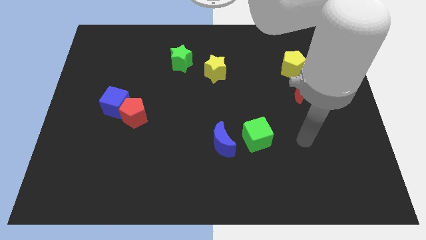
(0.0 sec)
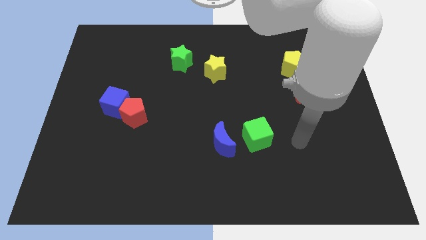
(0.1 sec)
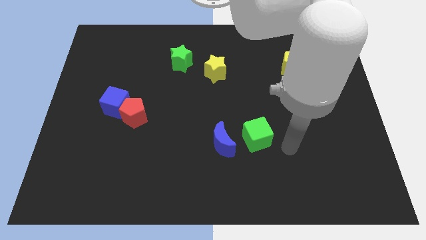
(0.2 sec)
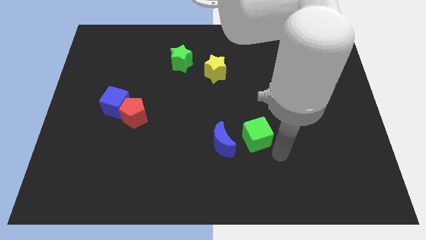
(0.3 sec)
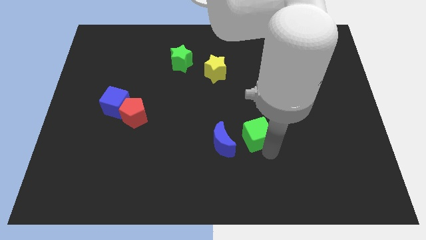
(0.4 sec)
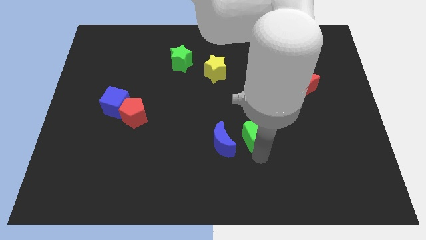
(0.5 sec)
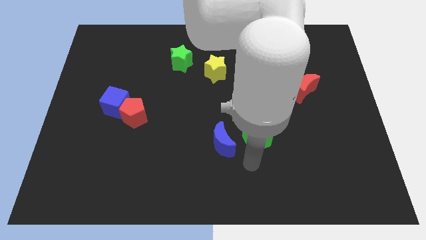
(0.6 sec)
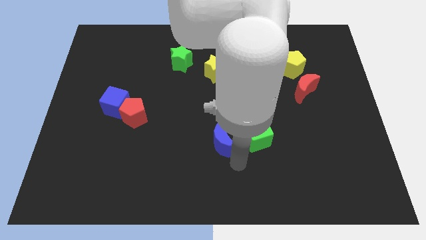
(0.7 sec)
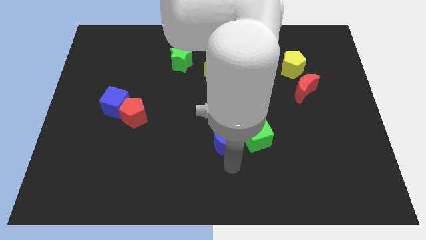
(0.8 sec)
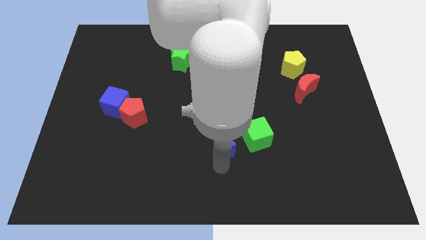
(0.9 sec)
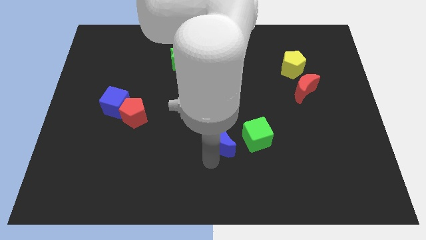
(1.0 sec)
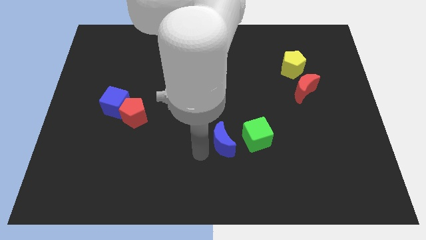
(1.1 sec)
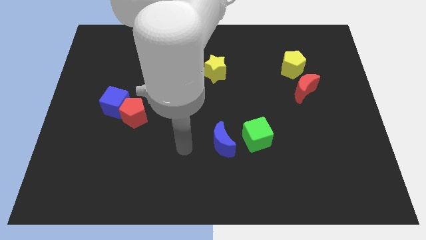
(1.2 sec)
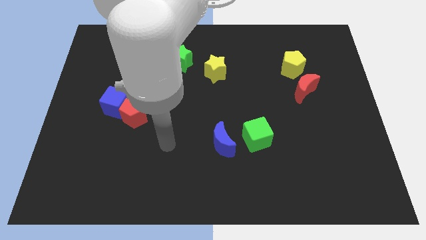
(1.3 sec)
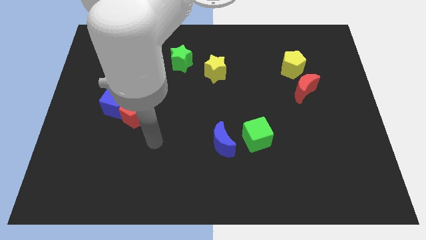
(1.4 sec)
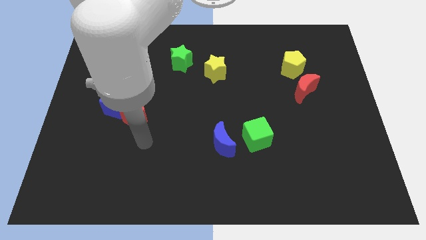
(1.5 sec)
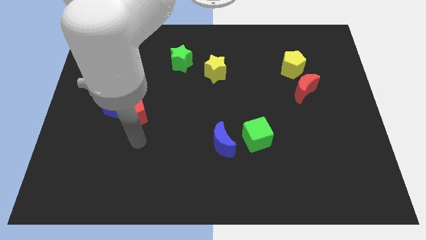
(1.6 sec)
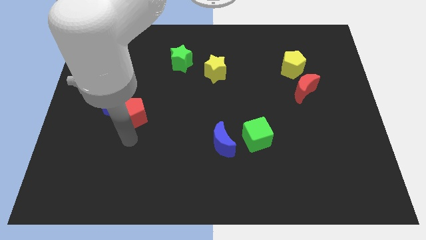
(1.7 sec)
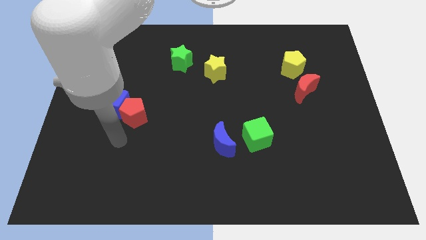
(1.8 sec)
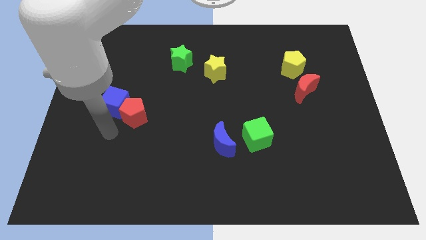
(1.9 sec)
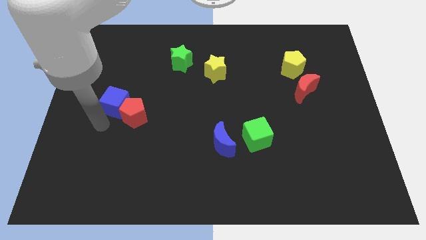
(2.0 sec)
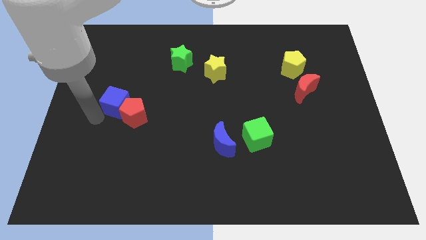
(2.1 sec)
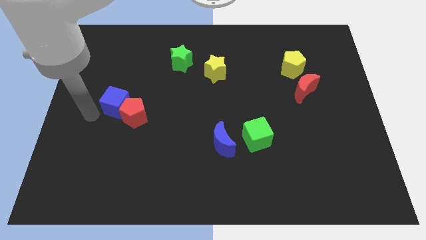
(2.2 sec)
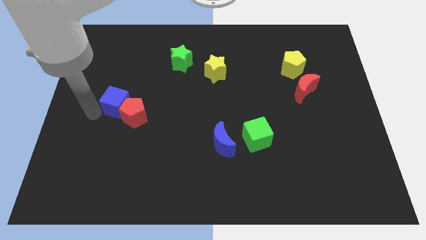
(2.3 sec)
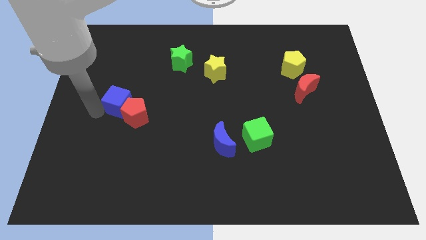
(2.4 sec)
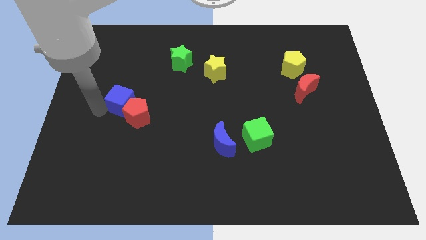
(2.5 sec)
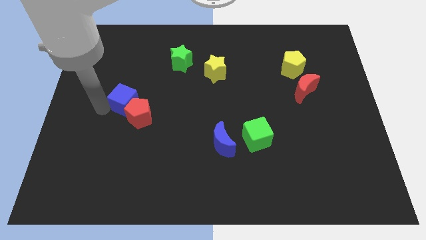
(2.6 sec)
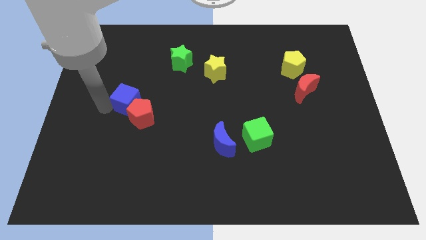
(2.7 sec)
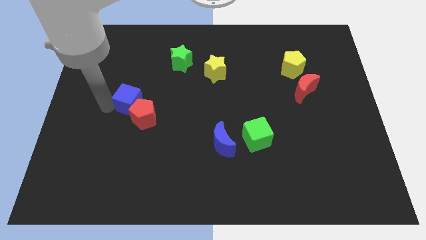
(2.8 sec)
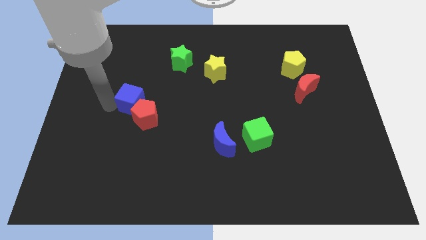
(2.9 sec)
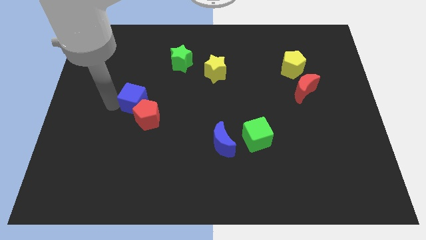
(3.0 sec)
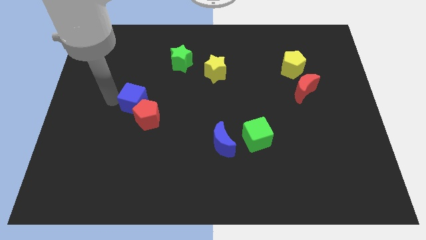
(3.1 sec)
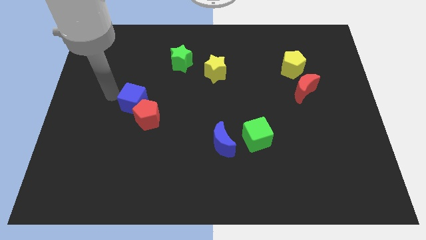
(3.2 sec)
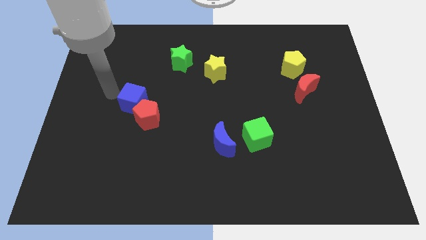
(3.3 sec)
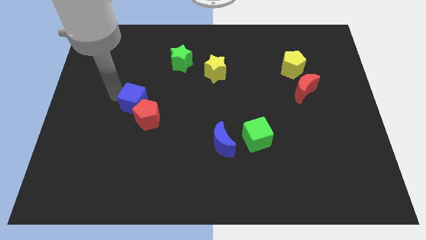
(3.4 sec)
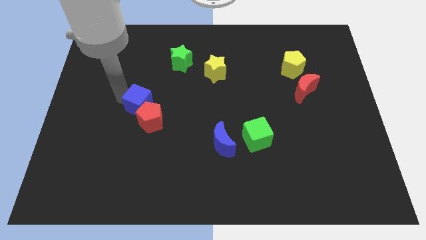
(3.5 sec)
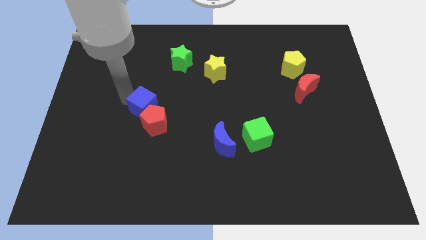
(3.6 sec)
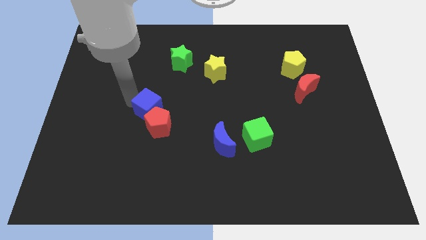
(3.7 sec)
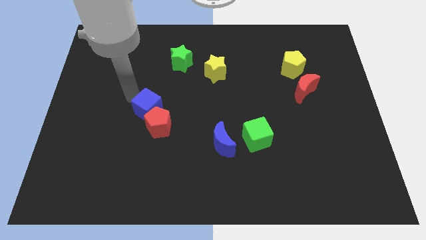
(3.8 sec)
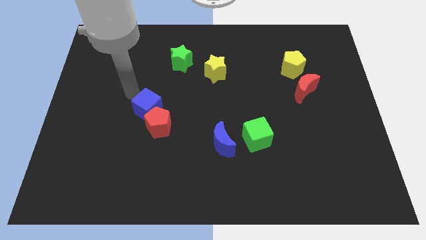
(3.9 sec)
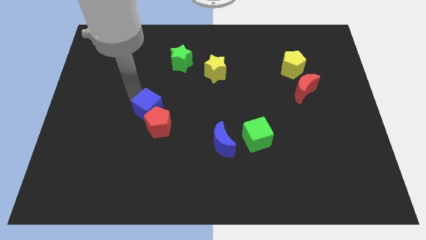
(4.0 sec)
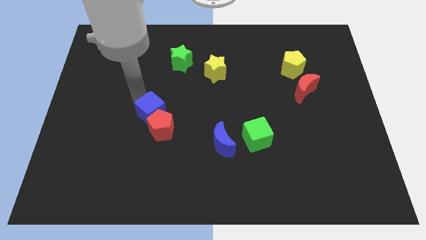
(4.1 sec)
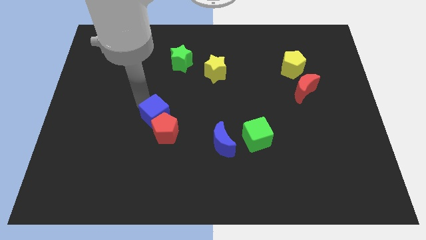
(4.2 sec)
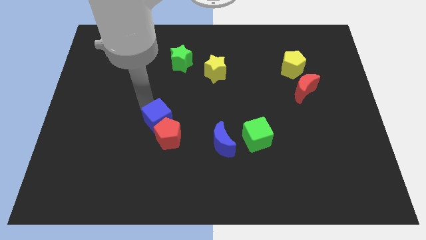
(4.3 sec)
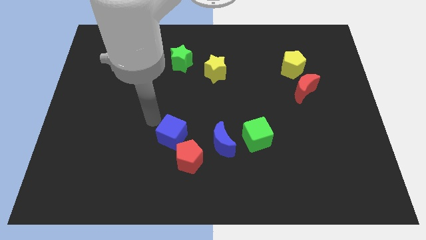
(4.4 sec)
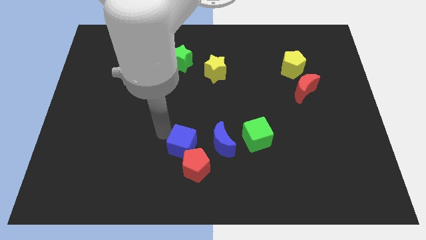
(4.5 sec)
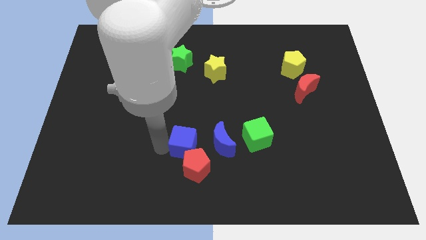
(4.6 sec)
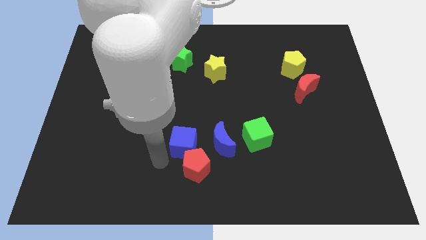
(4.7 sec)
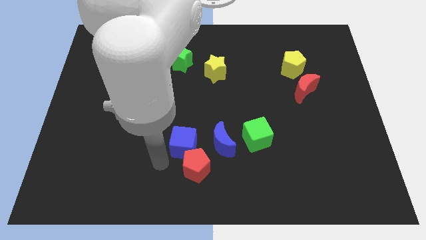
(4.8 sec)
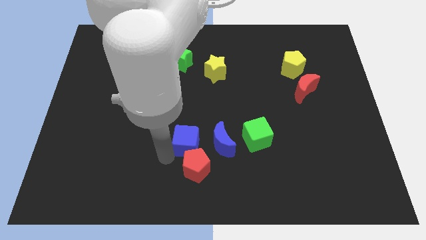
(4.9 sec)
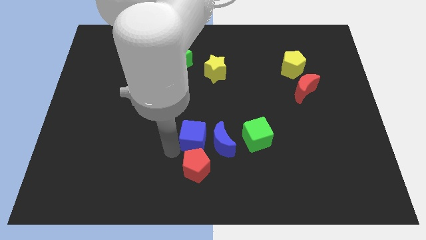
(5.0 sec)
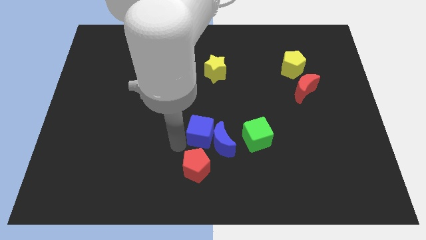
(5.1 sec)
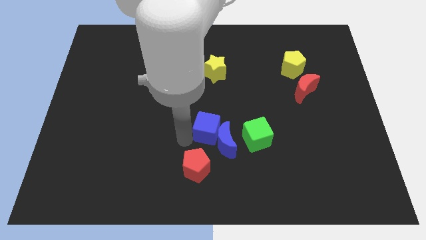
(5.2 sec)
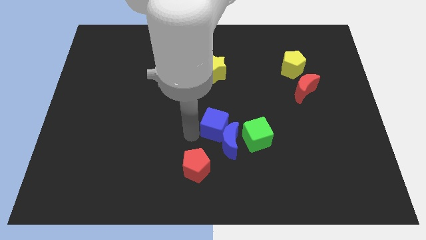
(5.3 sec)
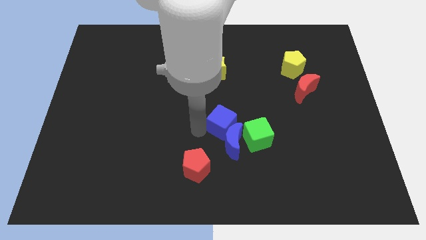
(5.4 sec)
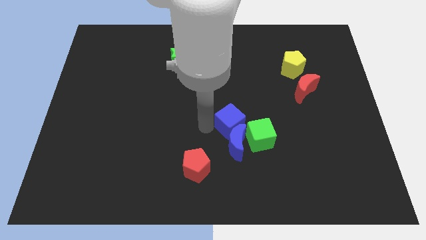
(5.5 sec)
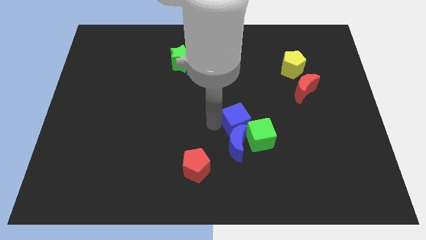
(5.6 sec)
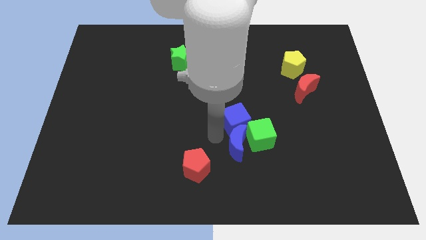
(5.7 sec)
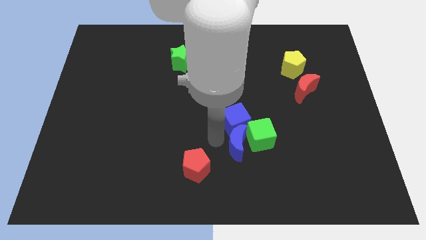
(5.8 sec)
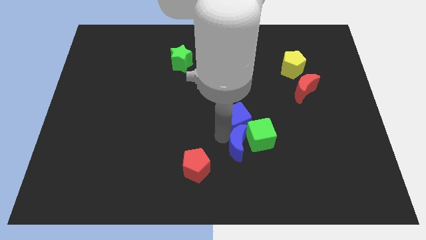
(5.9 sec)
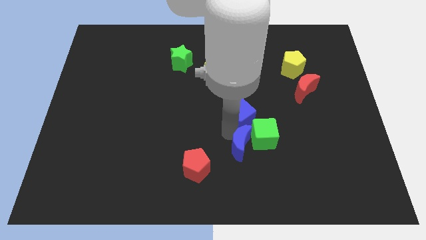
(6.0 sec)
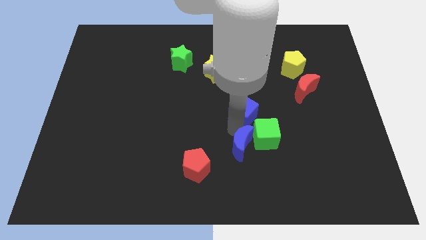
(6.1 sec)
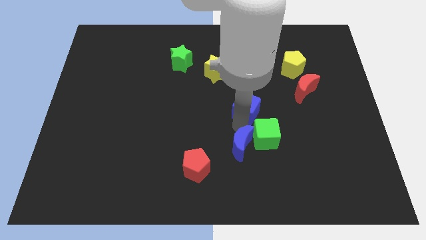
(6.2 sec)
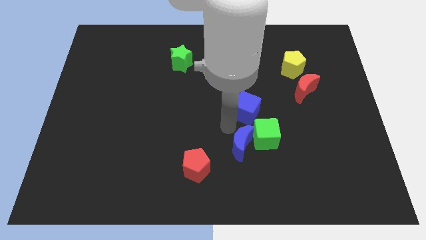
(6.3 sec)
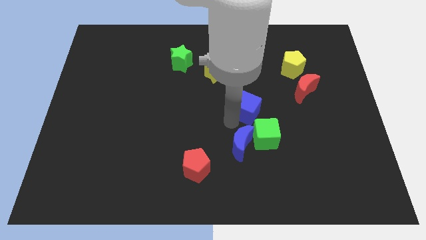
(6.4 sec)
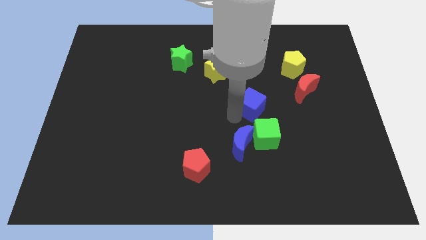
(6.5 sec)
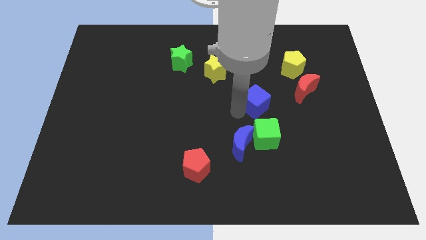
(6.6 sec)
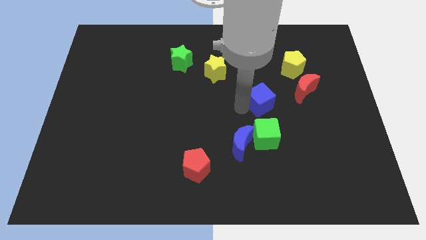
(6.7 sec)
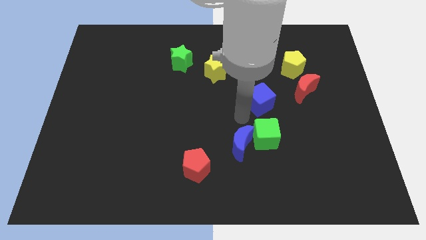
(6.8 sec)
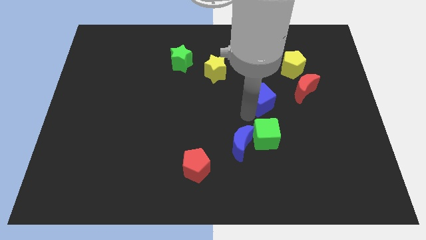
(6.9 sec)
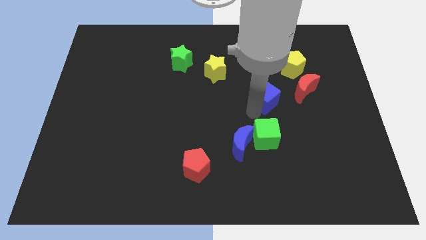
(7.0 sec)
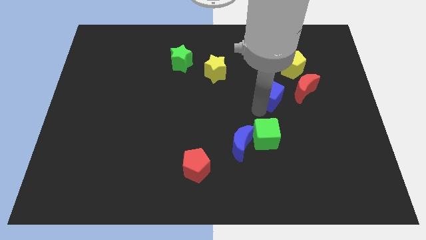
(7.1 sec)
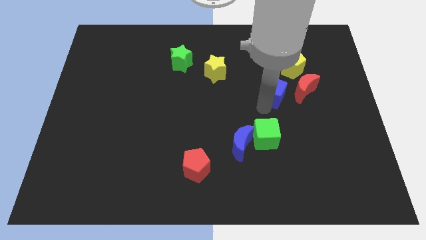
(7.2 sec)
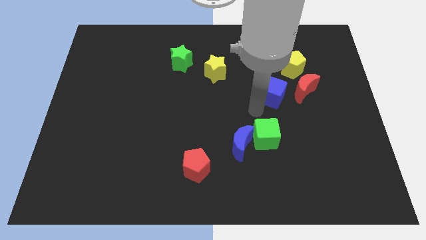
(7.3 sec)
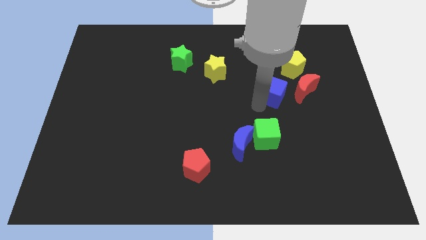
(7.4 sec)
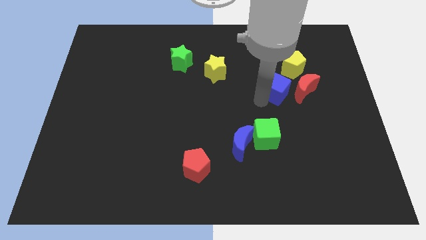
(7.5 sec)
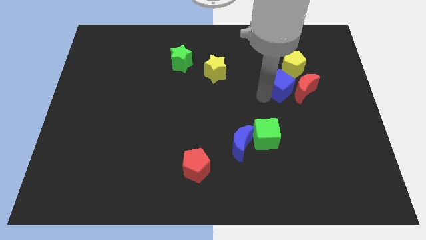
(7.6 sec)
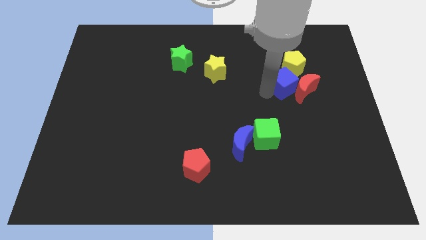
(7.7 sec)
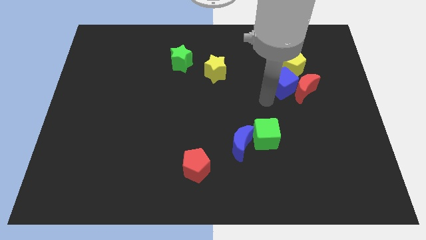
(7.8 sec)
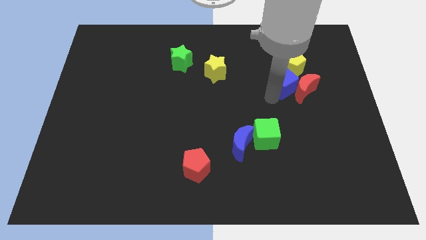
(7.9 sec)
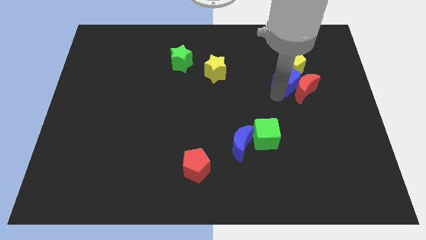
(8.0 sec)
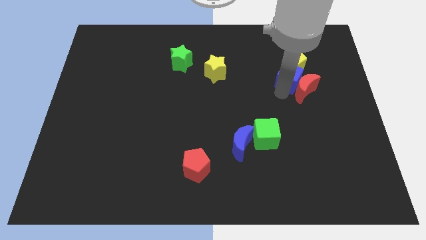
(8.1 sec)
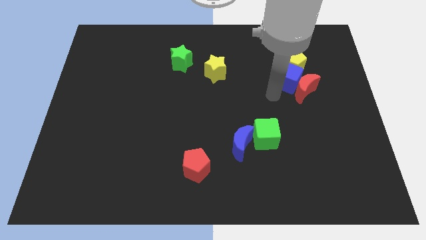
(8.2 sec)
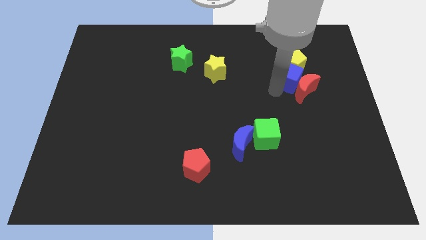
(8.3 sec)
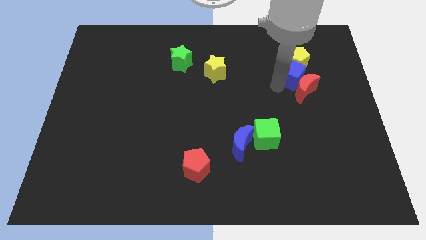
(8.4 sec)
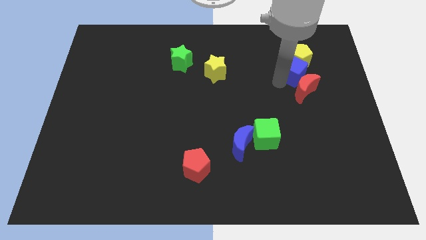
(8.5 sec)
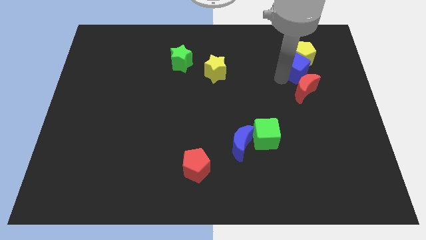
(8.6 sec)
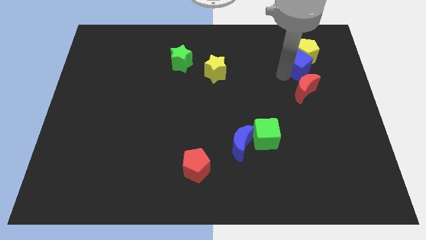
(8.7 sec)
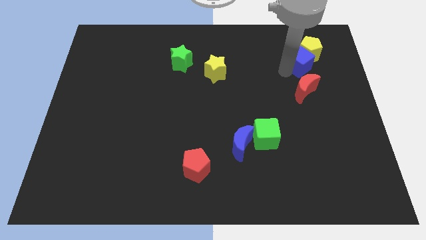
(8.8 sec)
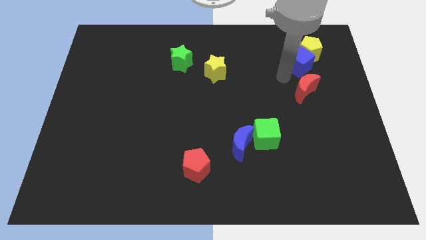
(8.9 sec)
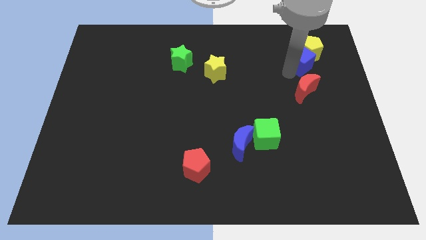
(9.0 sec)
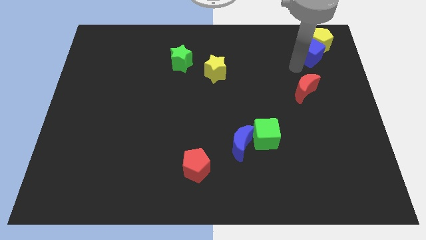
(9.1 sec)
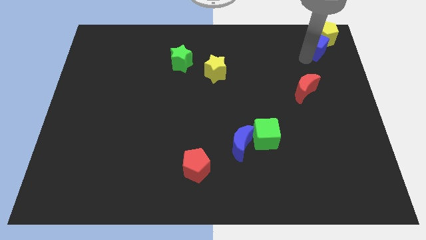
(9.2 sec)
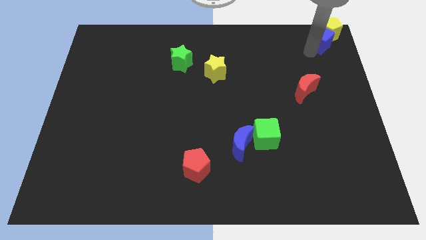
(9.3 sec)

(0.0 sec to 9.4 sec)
put the blue cube to the upper right corner
